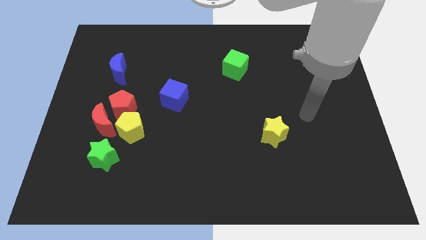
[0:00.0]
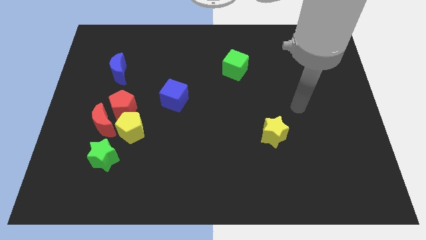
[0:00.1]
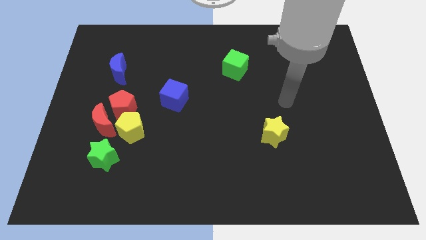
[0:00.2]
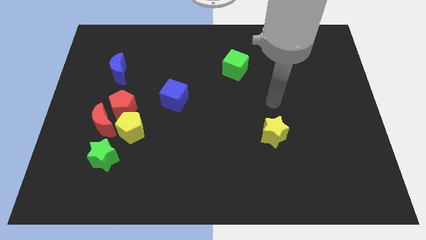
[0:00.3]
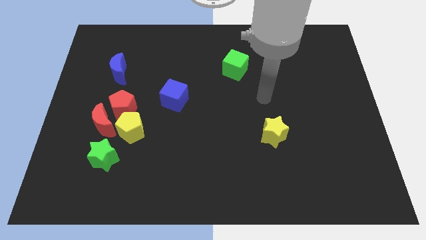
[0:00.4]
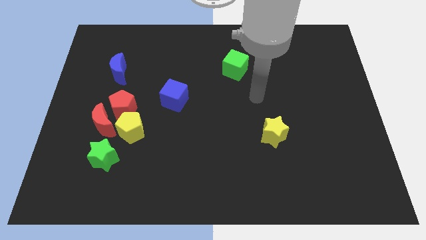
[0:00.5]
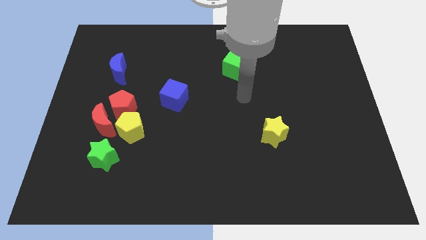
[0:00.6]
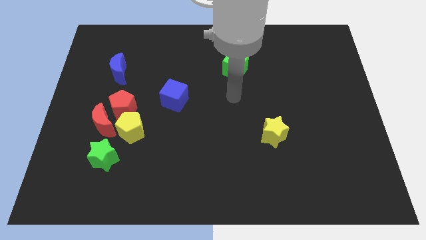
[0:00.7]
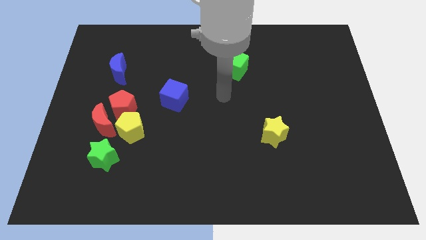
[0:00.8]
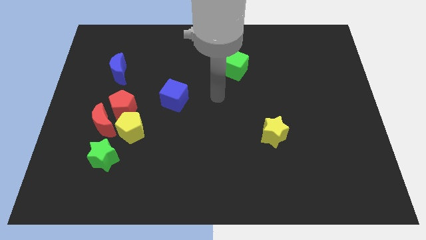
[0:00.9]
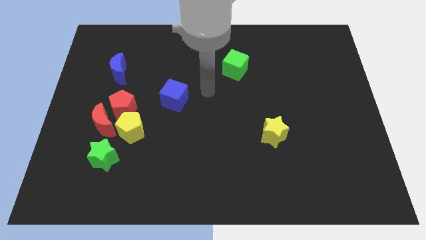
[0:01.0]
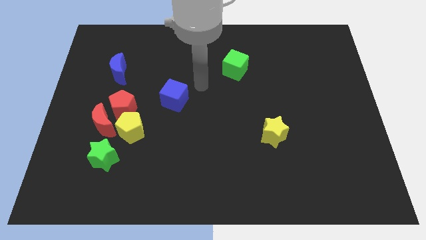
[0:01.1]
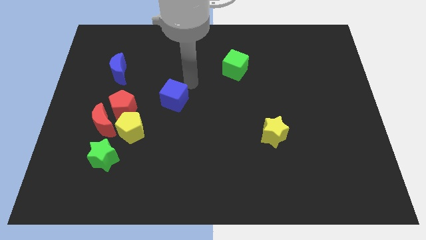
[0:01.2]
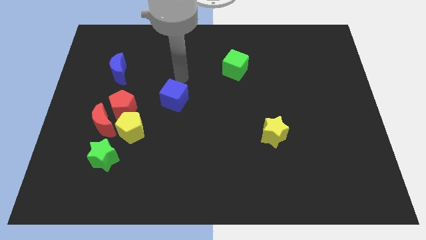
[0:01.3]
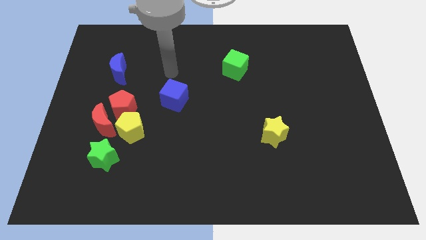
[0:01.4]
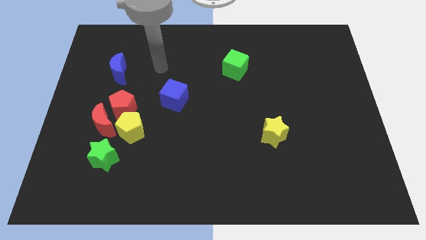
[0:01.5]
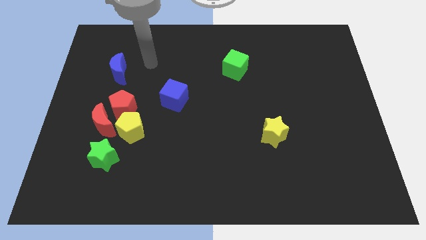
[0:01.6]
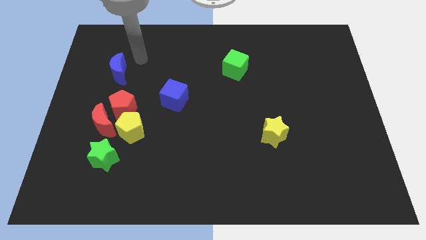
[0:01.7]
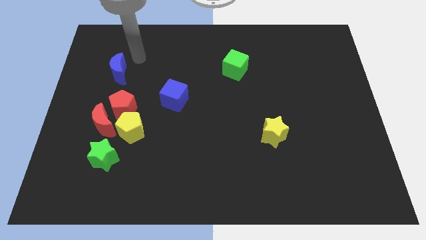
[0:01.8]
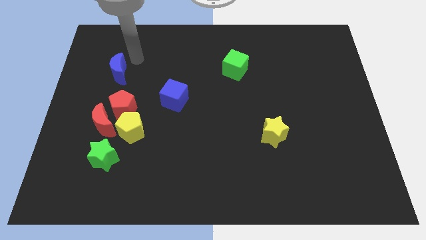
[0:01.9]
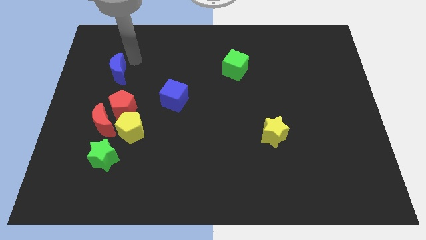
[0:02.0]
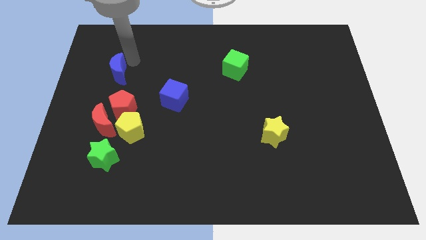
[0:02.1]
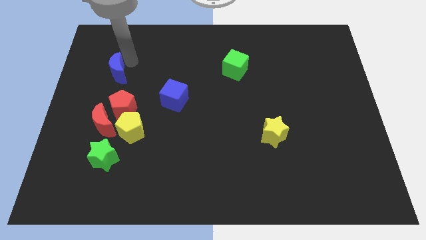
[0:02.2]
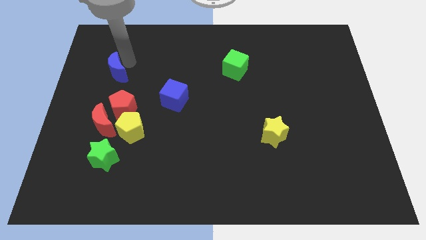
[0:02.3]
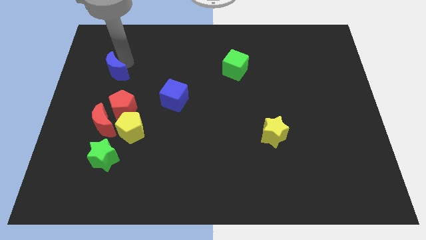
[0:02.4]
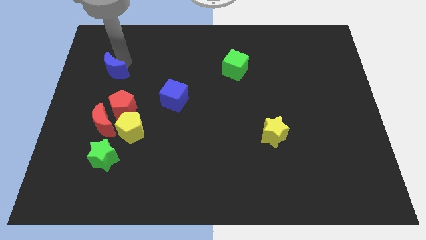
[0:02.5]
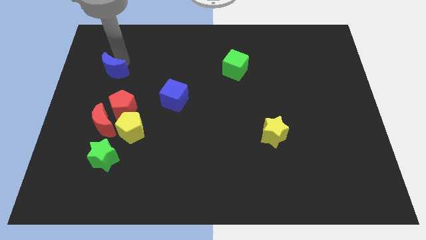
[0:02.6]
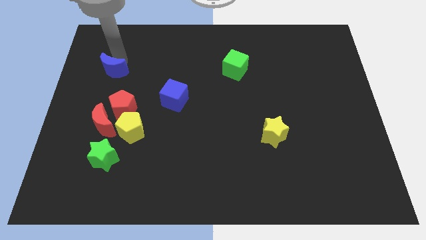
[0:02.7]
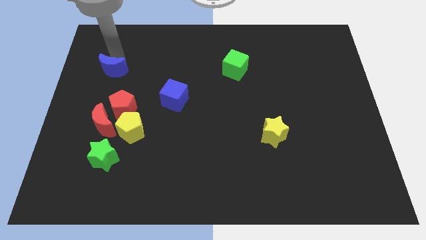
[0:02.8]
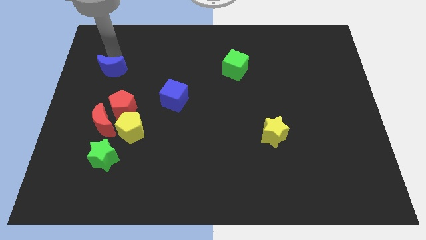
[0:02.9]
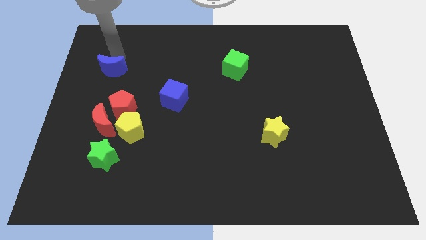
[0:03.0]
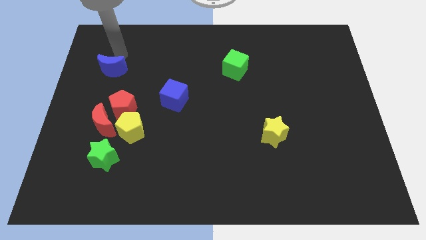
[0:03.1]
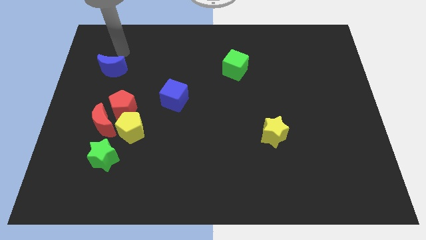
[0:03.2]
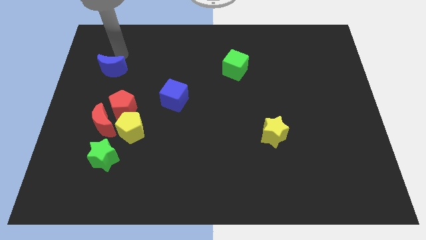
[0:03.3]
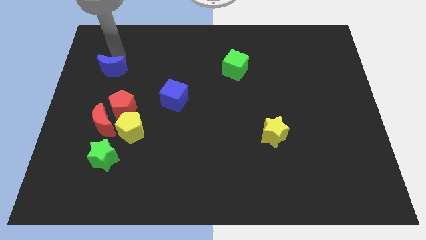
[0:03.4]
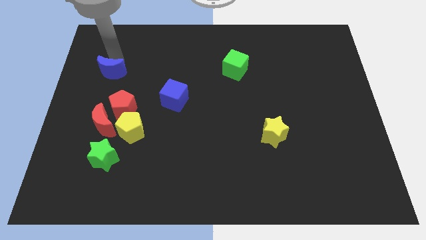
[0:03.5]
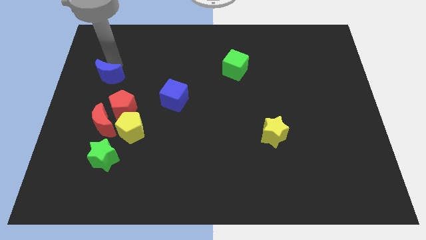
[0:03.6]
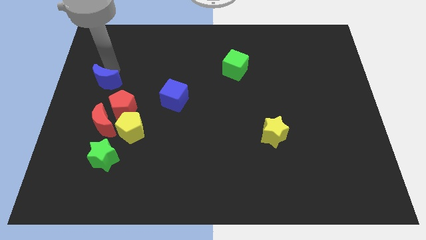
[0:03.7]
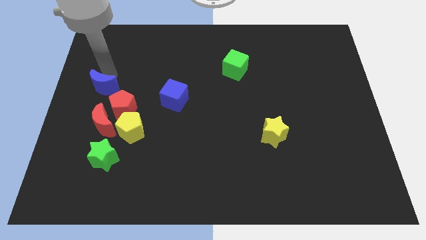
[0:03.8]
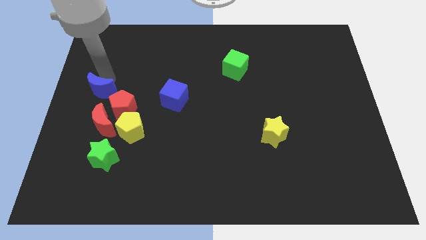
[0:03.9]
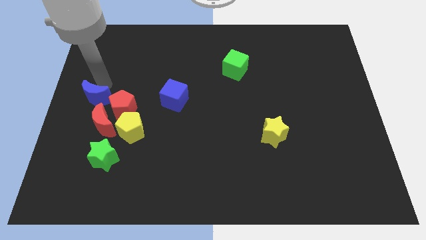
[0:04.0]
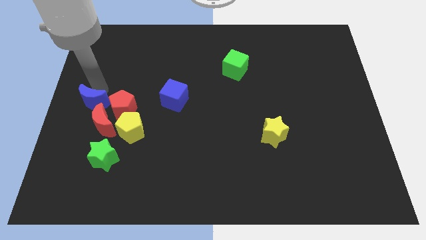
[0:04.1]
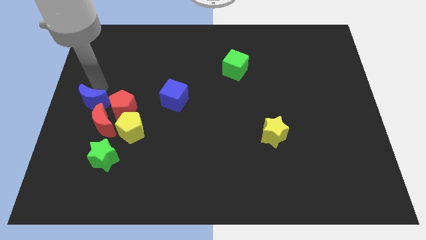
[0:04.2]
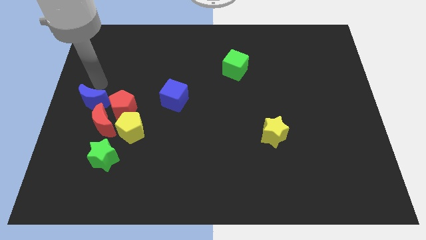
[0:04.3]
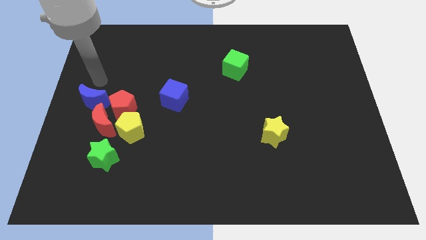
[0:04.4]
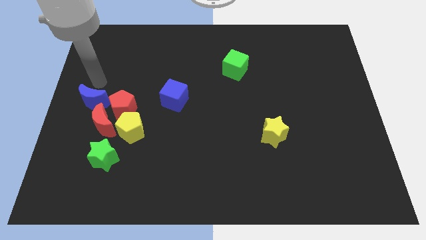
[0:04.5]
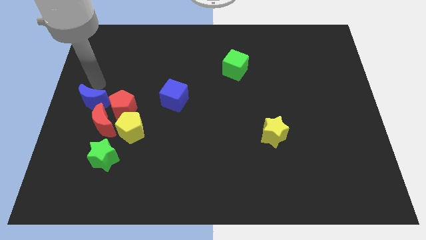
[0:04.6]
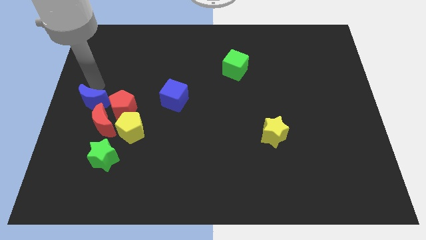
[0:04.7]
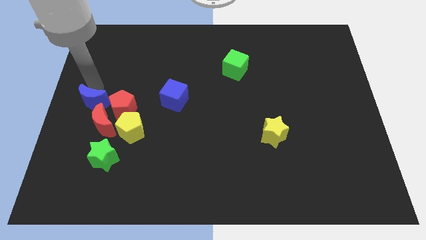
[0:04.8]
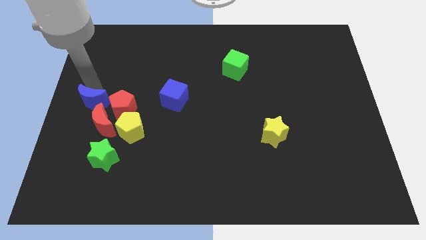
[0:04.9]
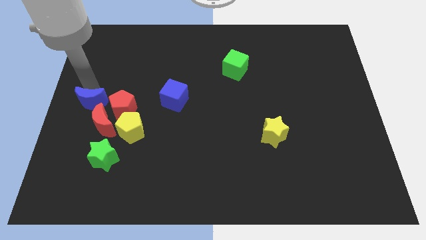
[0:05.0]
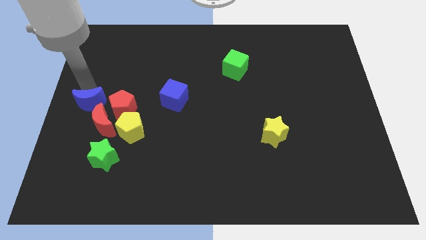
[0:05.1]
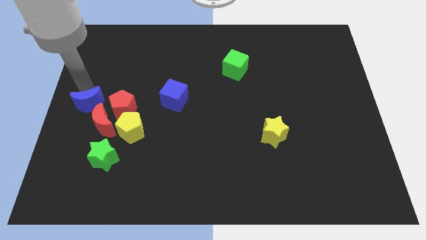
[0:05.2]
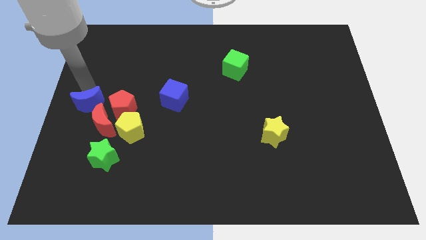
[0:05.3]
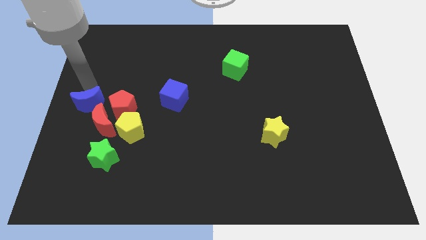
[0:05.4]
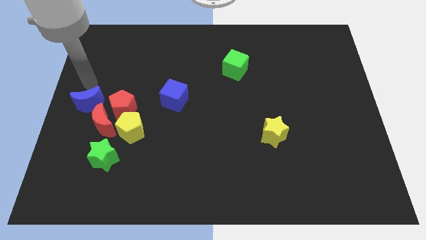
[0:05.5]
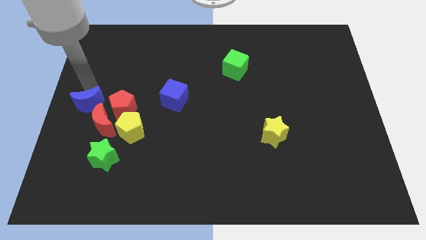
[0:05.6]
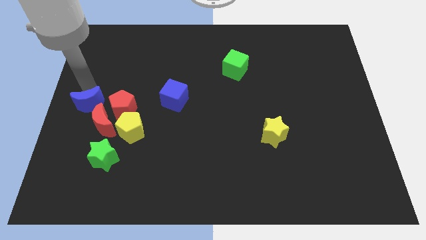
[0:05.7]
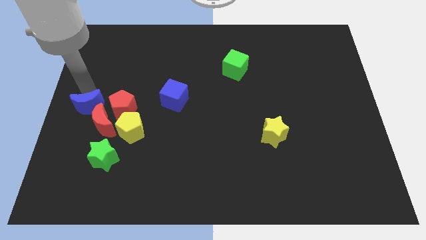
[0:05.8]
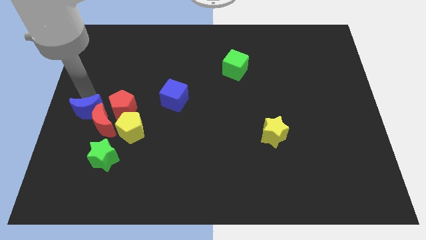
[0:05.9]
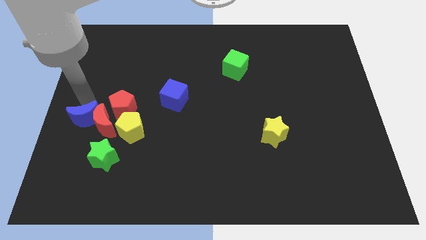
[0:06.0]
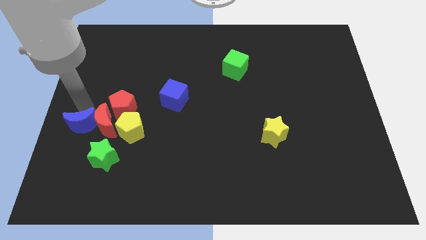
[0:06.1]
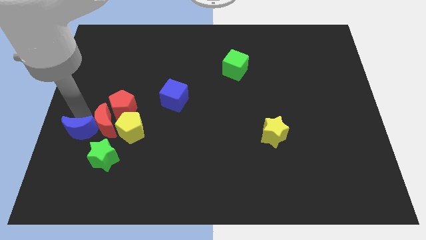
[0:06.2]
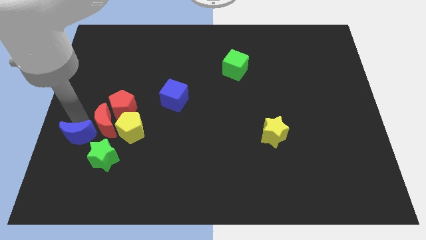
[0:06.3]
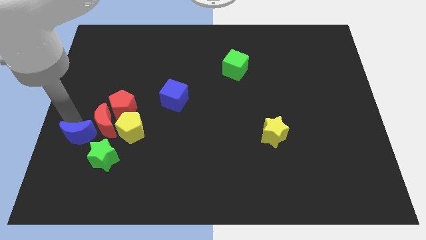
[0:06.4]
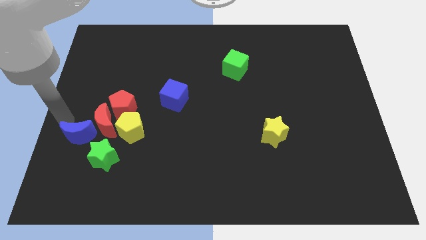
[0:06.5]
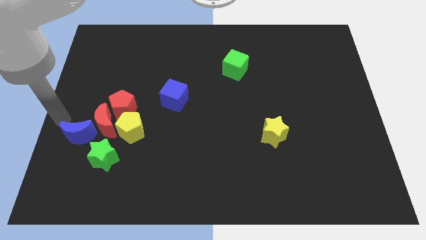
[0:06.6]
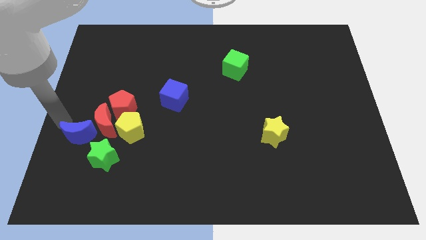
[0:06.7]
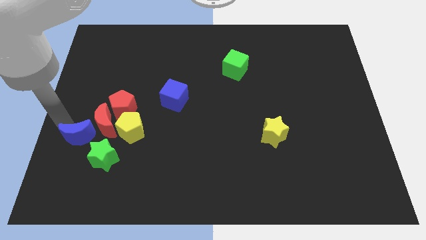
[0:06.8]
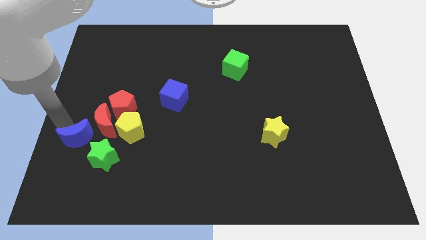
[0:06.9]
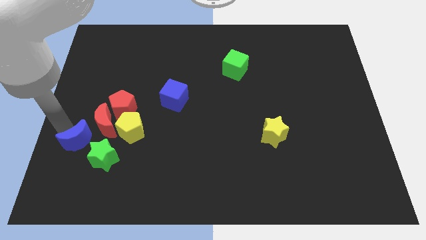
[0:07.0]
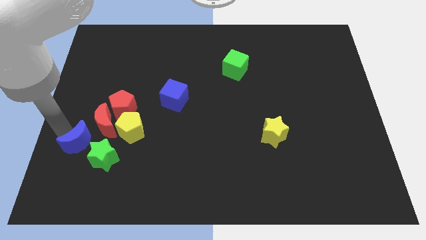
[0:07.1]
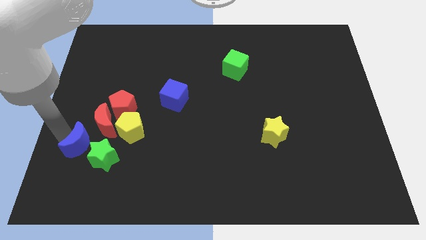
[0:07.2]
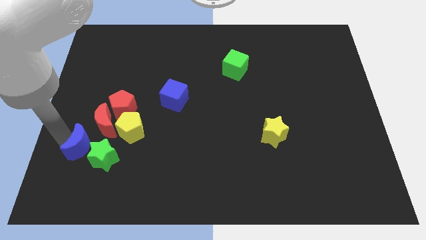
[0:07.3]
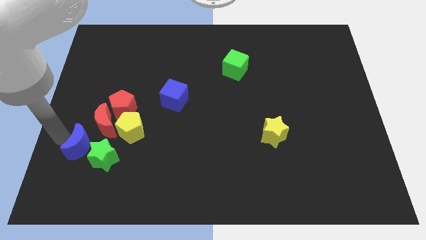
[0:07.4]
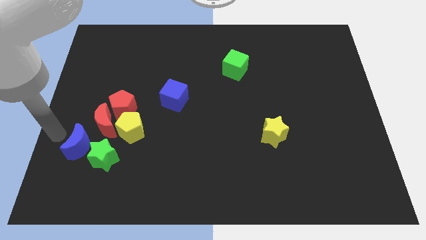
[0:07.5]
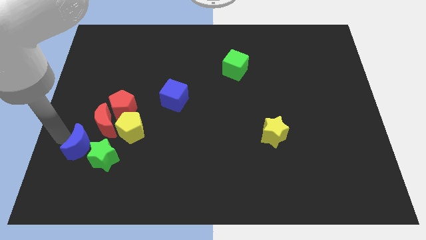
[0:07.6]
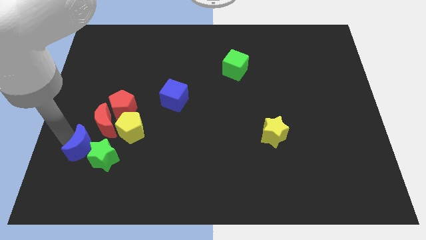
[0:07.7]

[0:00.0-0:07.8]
put the blue moon close to the green star
